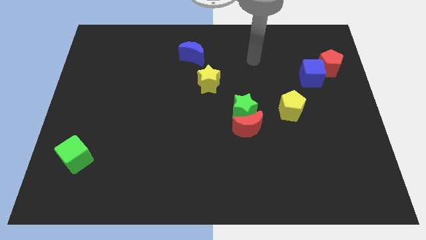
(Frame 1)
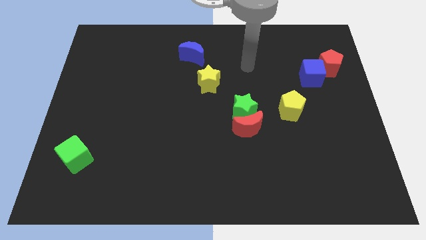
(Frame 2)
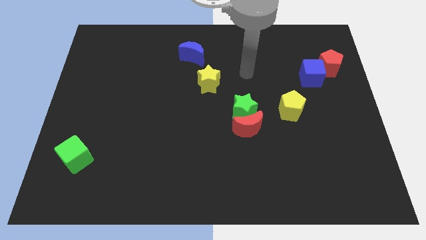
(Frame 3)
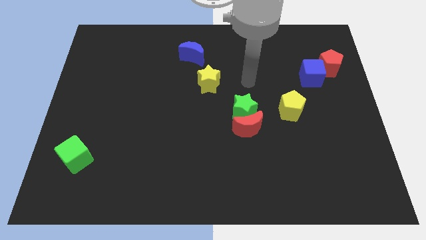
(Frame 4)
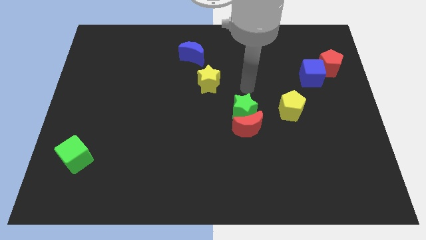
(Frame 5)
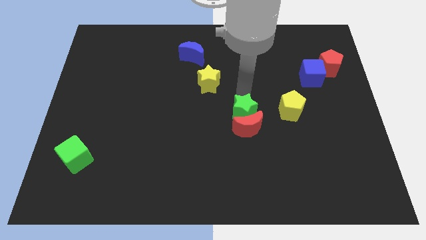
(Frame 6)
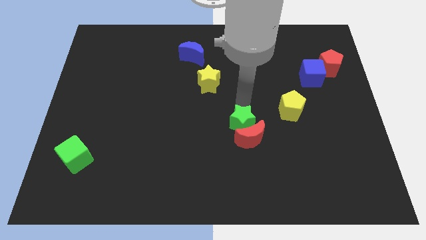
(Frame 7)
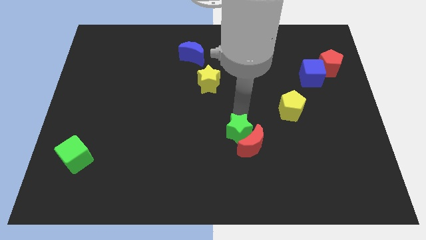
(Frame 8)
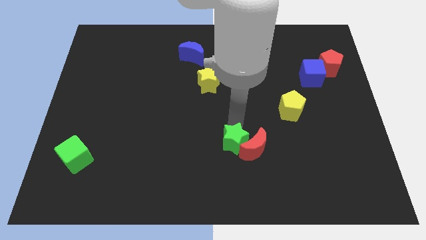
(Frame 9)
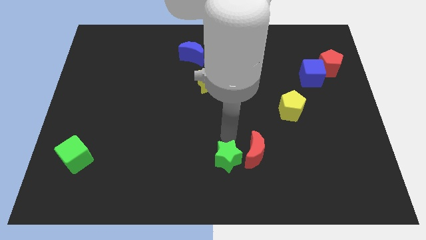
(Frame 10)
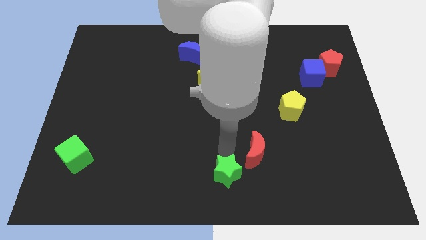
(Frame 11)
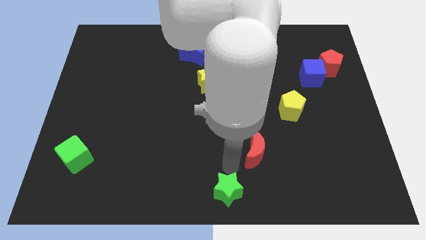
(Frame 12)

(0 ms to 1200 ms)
move the red moon away from the green star

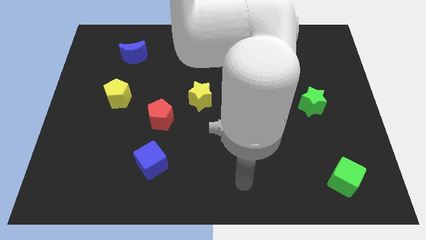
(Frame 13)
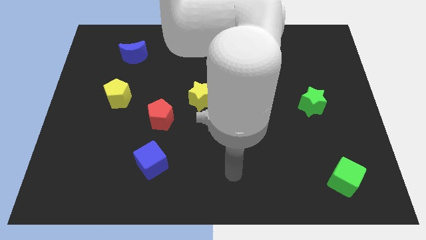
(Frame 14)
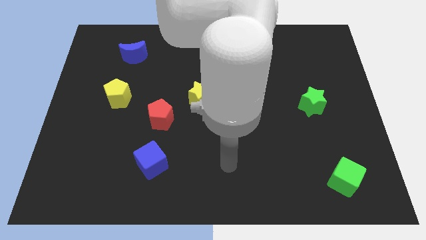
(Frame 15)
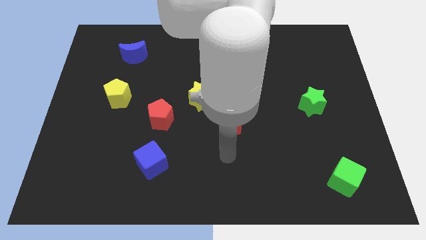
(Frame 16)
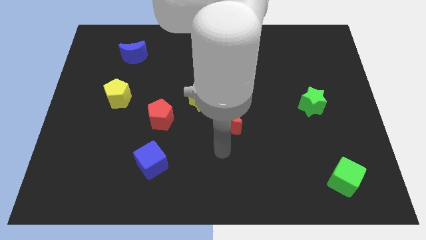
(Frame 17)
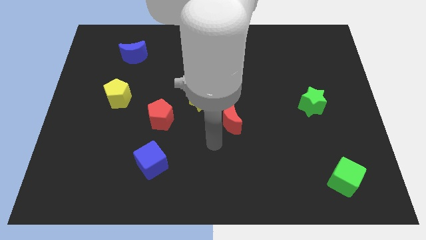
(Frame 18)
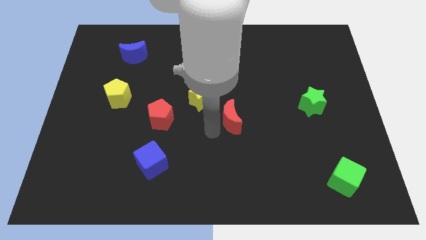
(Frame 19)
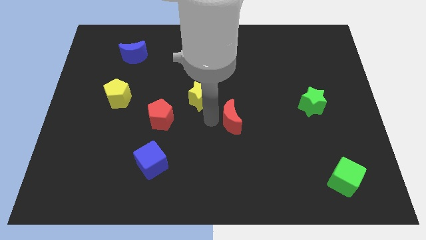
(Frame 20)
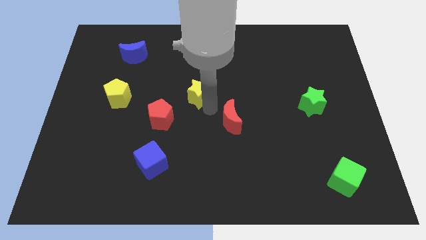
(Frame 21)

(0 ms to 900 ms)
pull the red moon apart from the yellow star

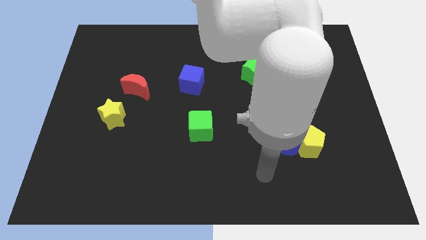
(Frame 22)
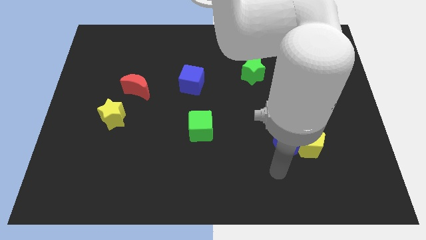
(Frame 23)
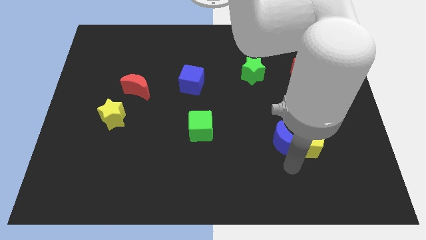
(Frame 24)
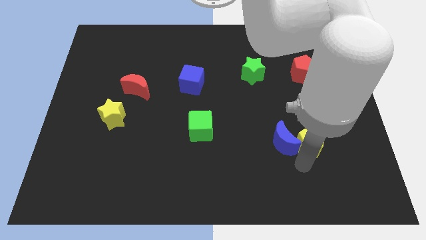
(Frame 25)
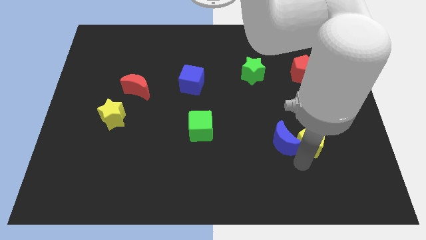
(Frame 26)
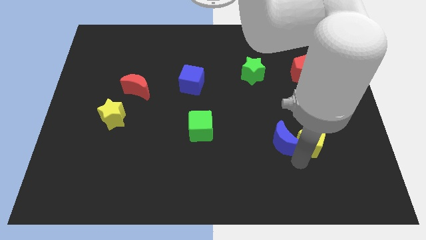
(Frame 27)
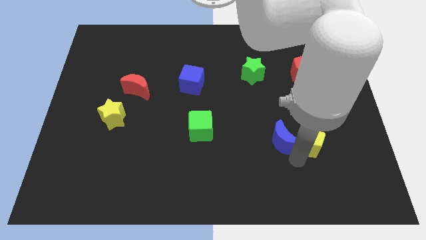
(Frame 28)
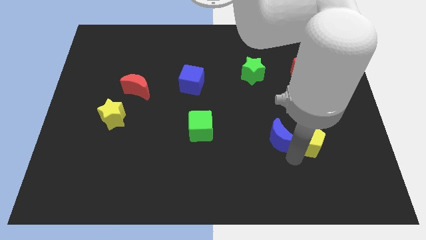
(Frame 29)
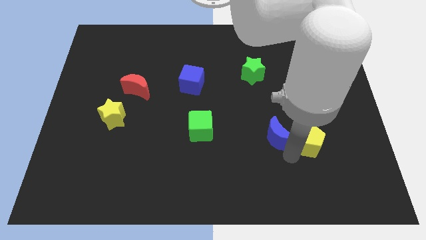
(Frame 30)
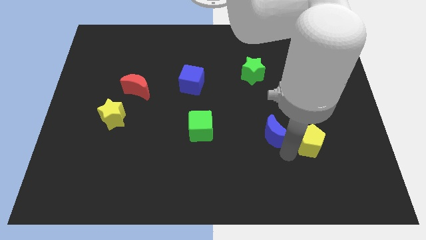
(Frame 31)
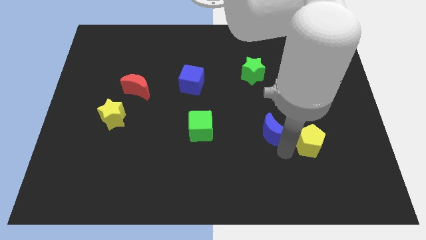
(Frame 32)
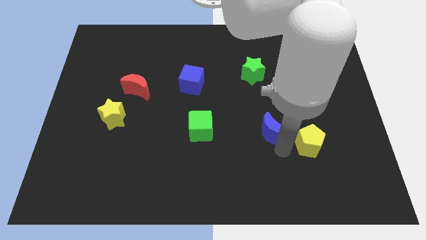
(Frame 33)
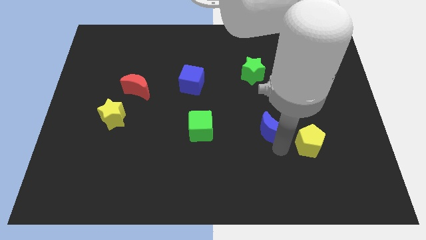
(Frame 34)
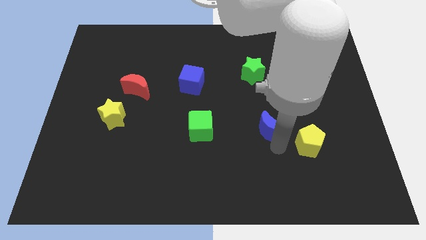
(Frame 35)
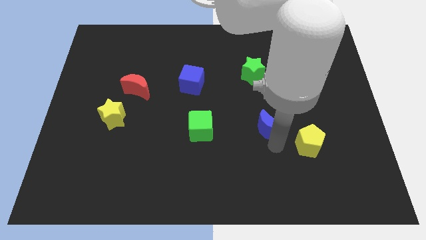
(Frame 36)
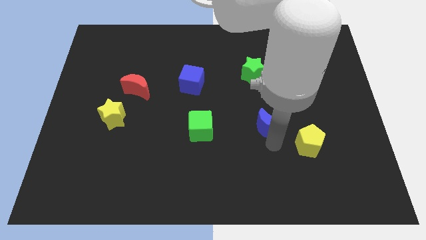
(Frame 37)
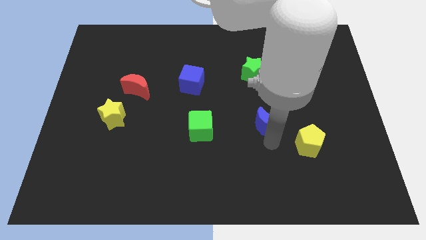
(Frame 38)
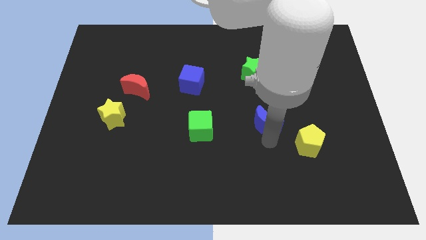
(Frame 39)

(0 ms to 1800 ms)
pull the blue moon apart from the yellow pentagon

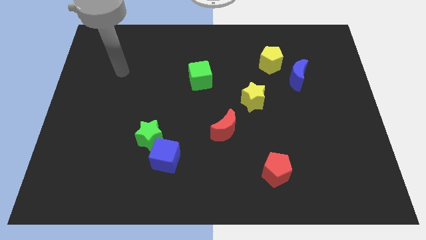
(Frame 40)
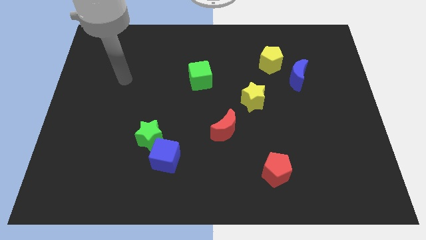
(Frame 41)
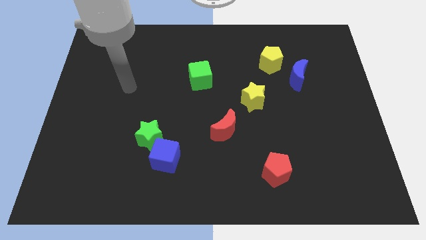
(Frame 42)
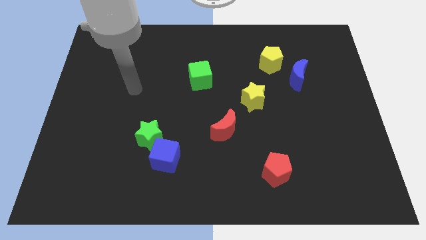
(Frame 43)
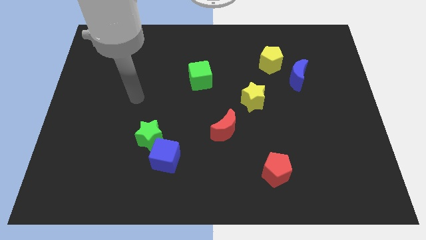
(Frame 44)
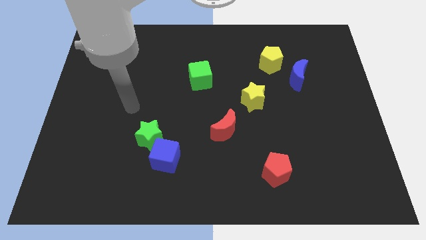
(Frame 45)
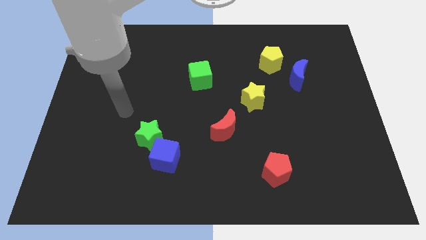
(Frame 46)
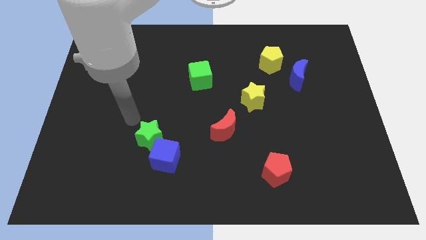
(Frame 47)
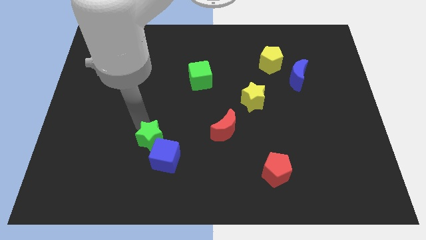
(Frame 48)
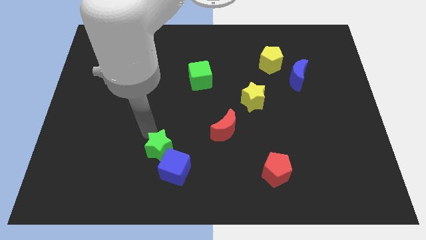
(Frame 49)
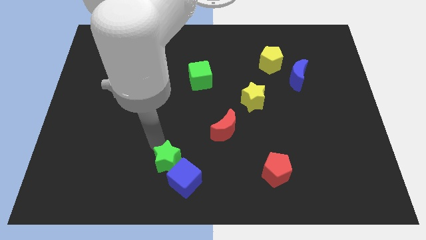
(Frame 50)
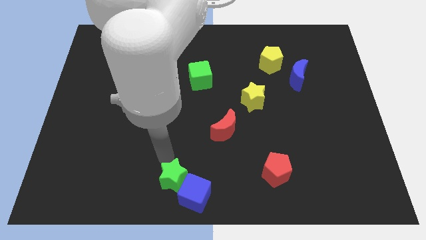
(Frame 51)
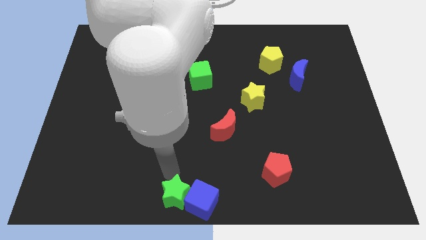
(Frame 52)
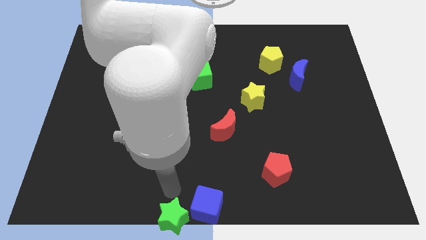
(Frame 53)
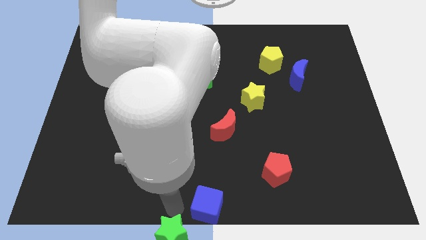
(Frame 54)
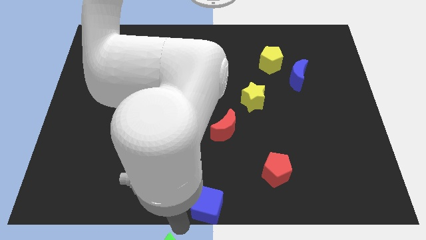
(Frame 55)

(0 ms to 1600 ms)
separate the blue cube from the green star

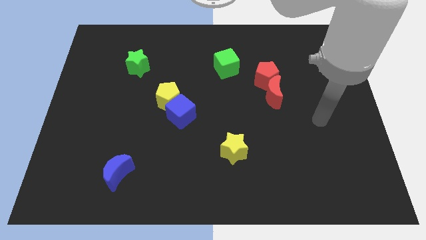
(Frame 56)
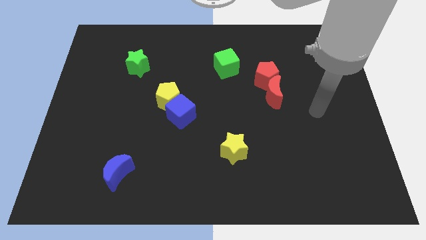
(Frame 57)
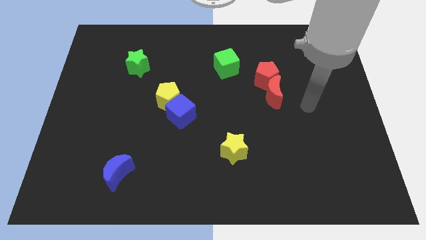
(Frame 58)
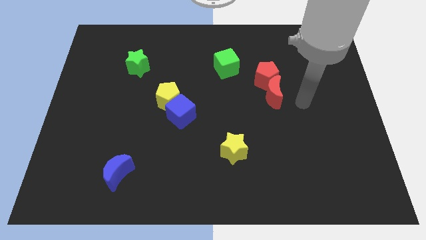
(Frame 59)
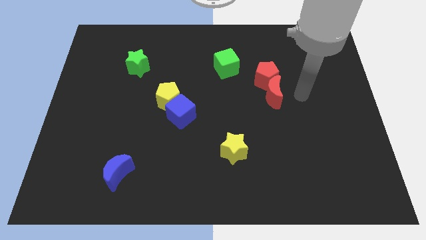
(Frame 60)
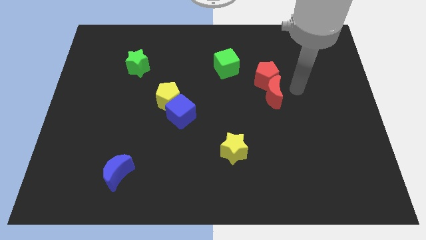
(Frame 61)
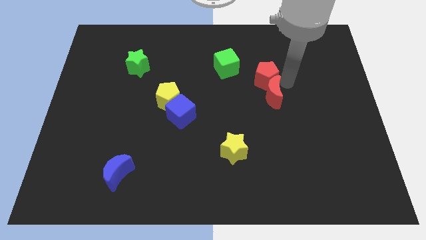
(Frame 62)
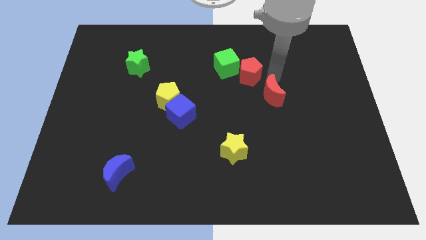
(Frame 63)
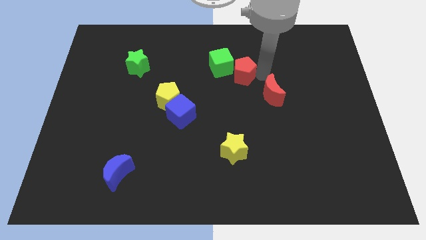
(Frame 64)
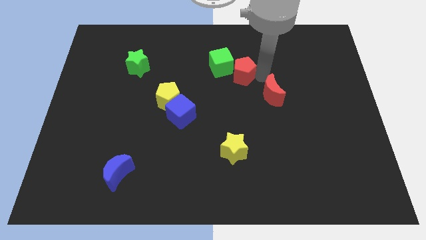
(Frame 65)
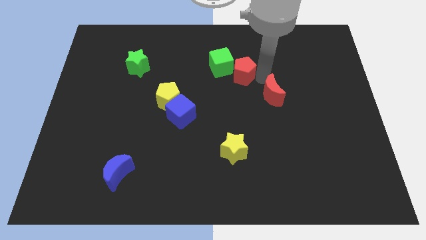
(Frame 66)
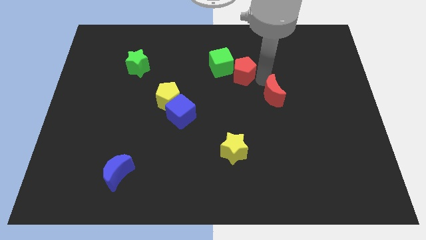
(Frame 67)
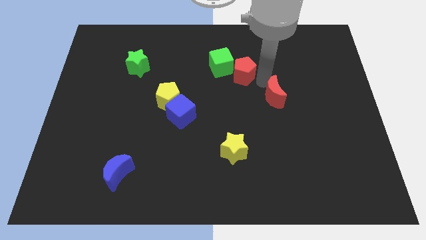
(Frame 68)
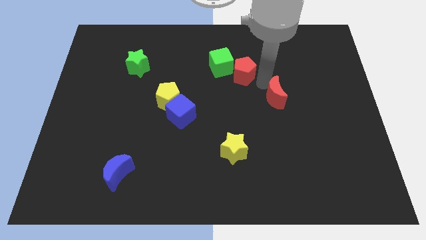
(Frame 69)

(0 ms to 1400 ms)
pull the red moon apart from the red pentagon

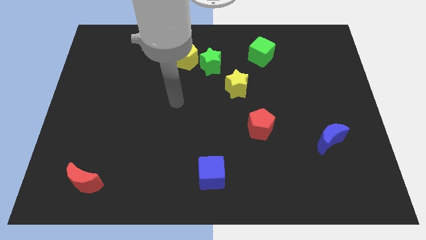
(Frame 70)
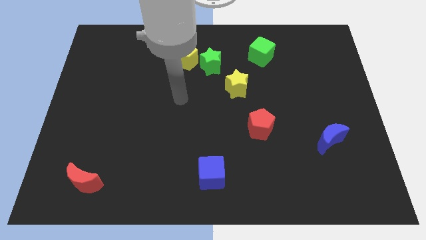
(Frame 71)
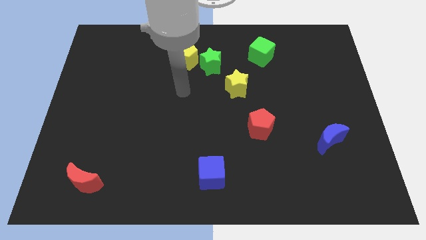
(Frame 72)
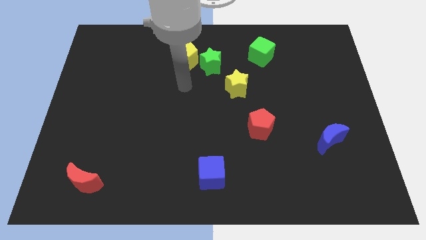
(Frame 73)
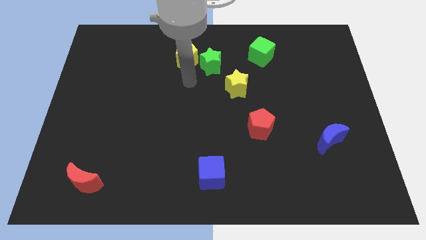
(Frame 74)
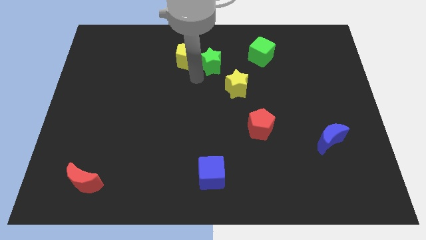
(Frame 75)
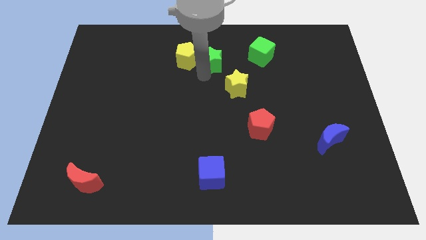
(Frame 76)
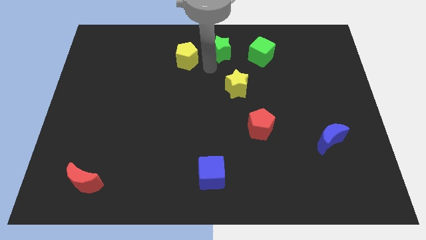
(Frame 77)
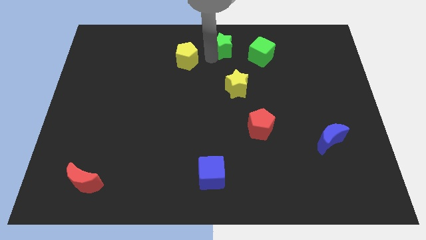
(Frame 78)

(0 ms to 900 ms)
separate the yellow pentagon from the green star

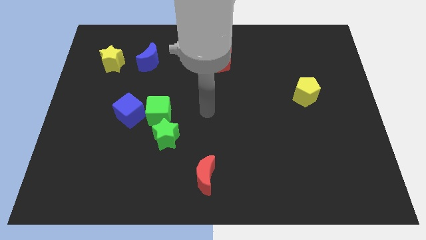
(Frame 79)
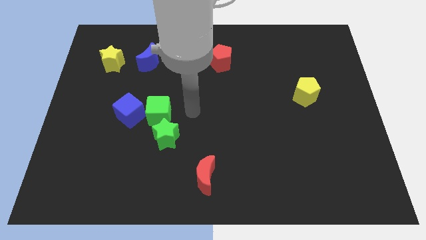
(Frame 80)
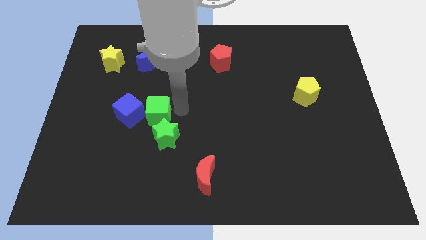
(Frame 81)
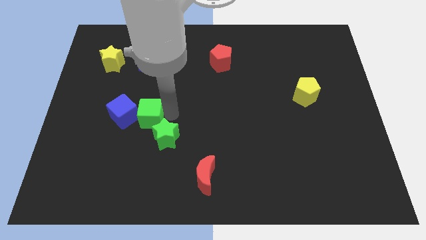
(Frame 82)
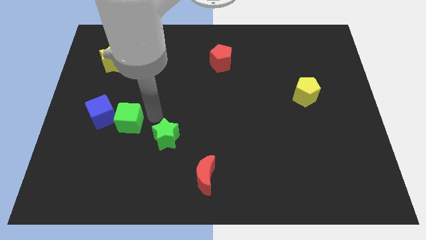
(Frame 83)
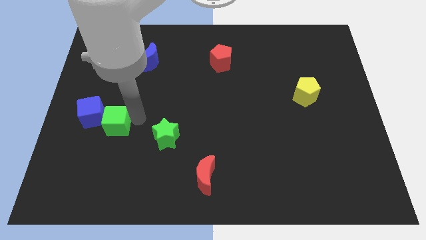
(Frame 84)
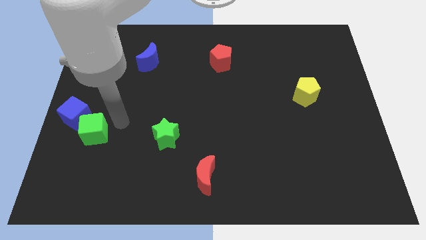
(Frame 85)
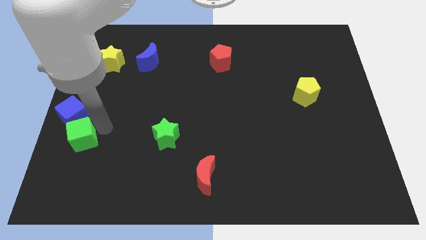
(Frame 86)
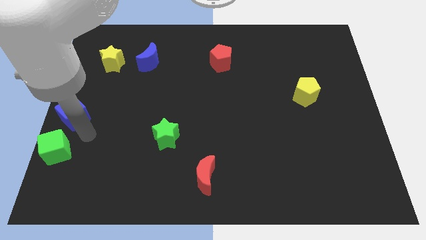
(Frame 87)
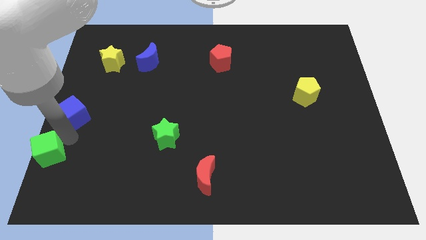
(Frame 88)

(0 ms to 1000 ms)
separate the blue cube from the green cube

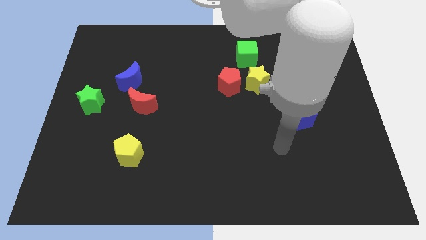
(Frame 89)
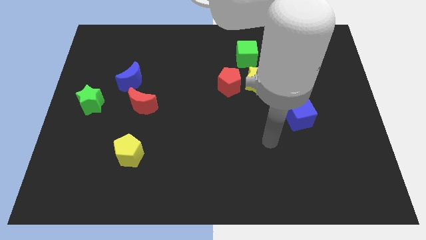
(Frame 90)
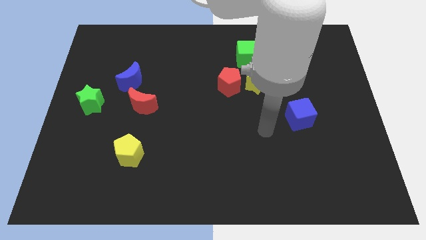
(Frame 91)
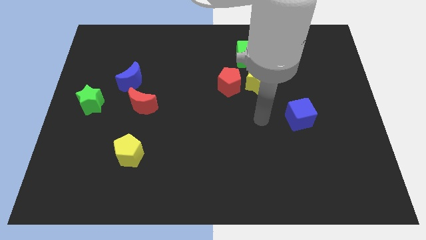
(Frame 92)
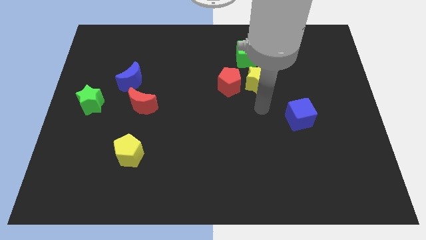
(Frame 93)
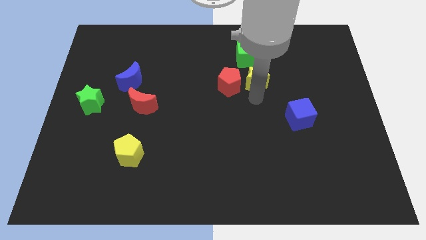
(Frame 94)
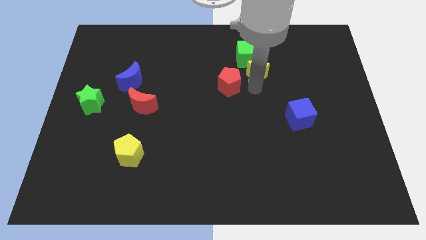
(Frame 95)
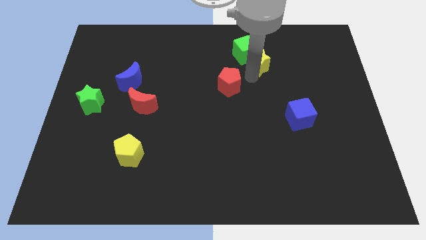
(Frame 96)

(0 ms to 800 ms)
move the red pentagon away from the yellow star
